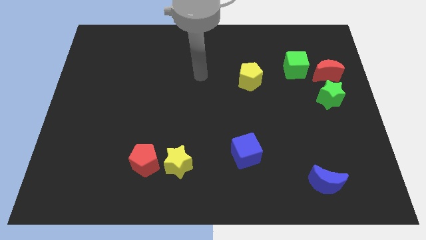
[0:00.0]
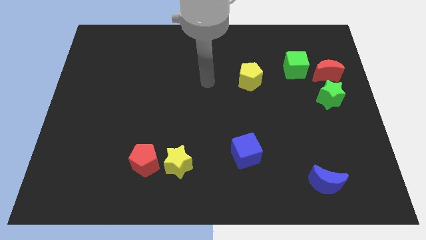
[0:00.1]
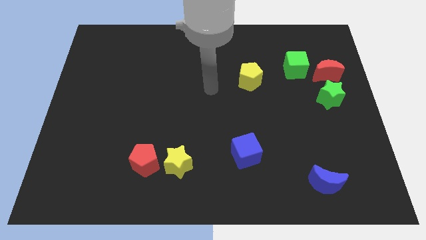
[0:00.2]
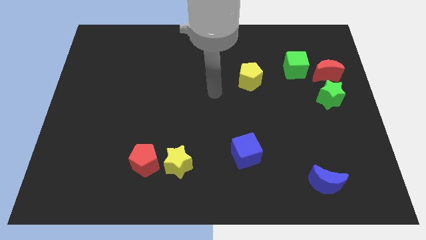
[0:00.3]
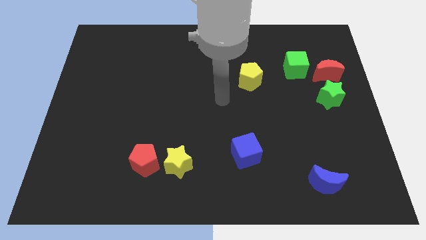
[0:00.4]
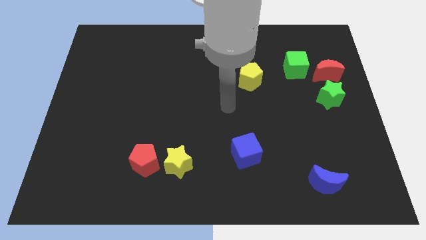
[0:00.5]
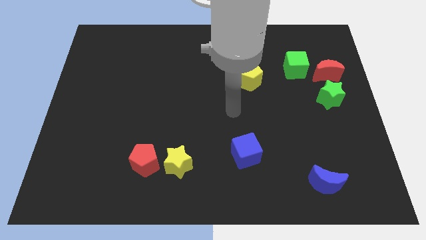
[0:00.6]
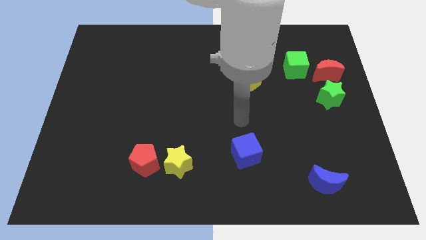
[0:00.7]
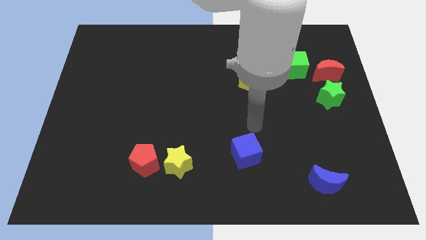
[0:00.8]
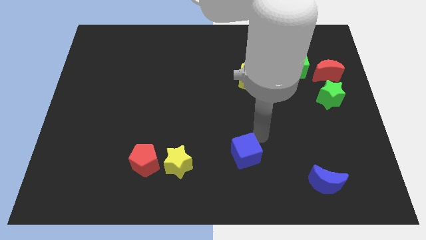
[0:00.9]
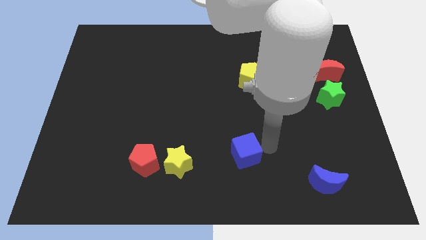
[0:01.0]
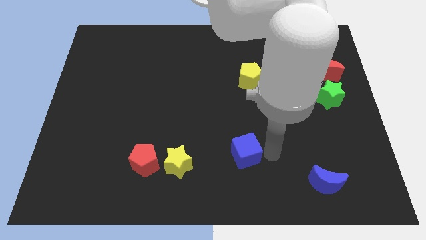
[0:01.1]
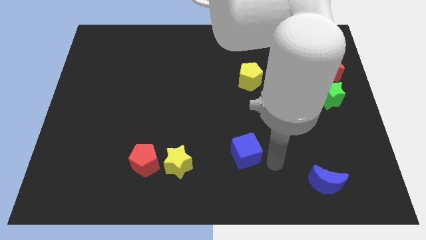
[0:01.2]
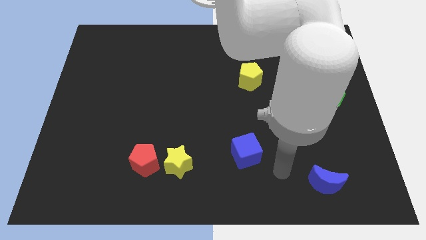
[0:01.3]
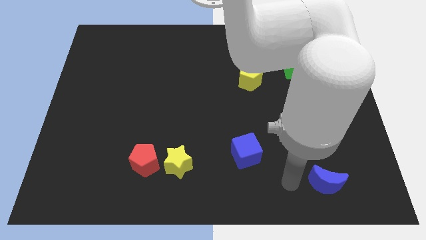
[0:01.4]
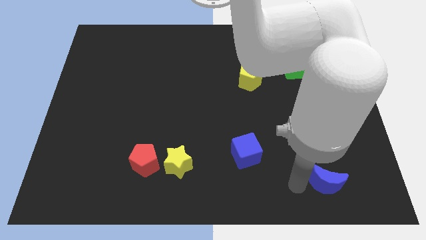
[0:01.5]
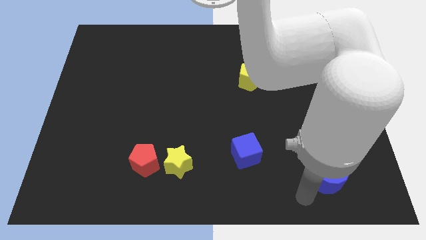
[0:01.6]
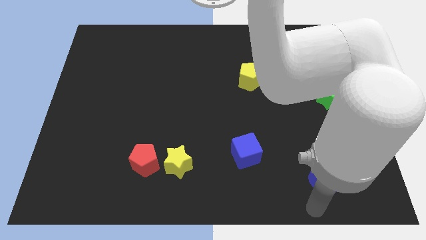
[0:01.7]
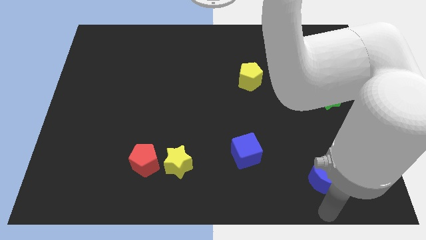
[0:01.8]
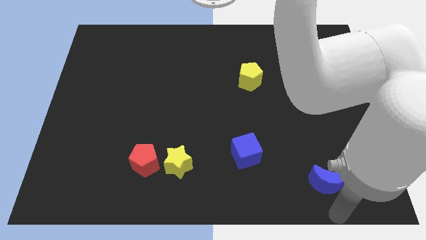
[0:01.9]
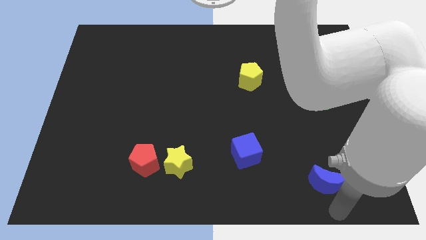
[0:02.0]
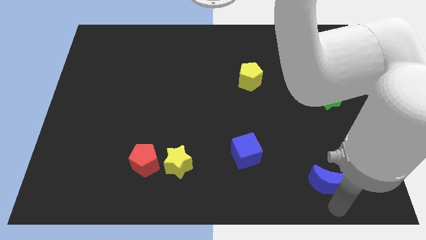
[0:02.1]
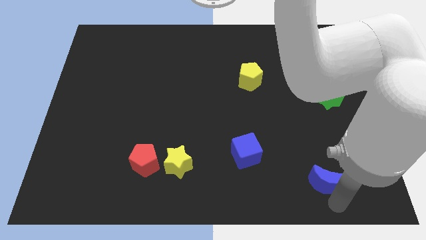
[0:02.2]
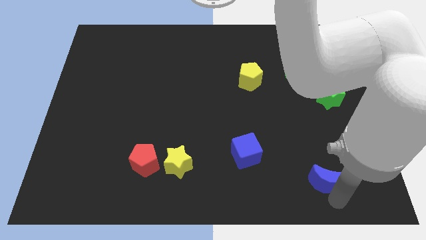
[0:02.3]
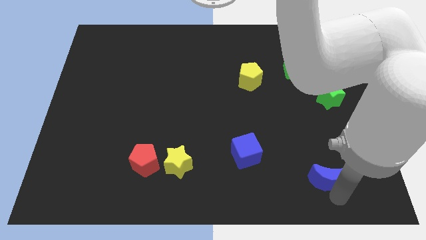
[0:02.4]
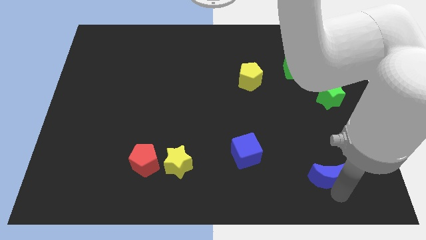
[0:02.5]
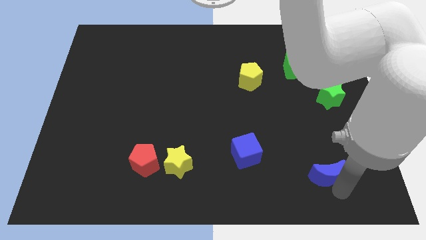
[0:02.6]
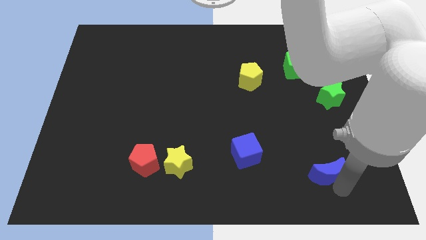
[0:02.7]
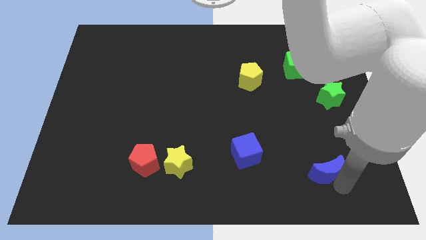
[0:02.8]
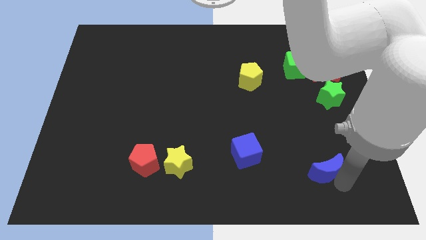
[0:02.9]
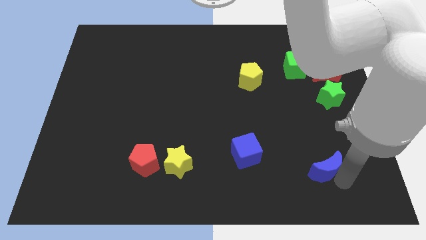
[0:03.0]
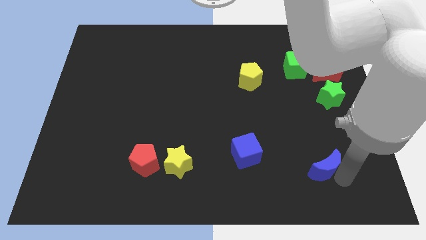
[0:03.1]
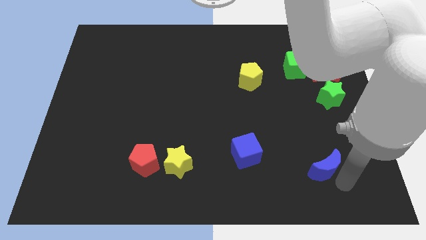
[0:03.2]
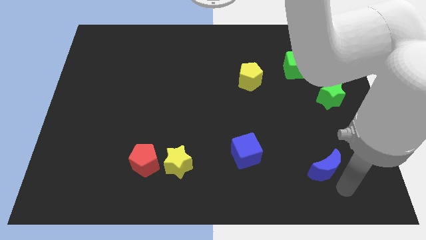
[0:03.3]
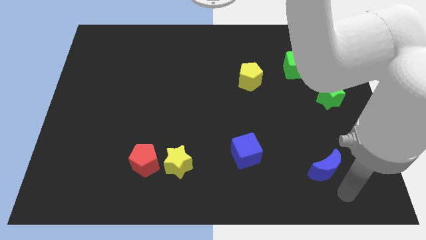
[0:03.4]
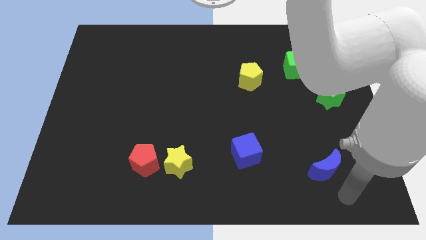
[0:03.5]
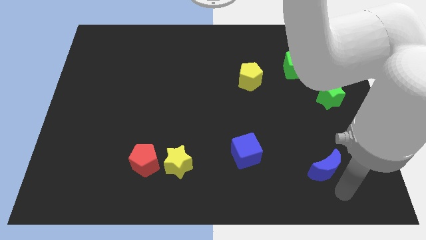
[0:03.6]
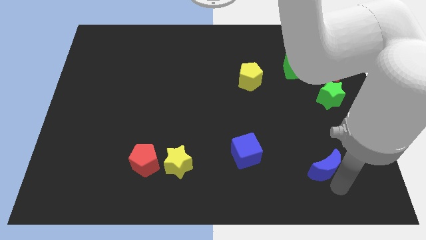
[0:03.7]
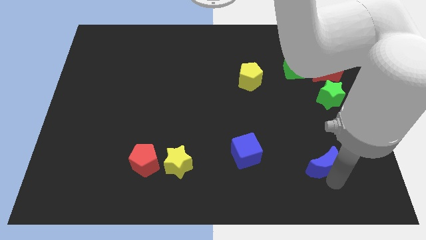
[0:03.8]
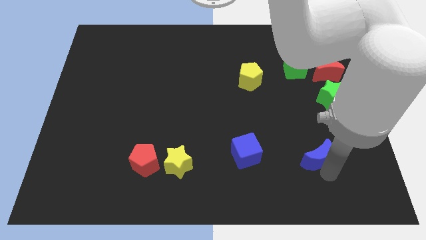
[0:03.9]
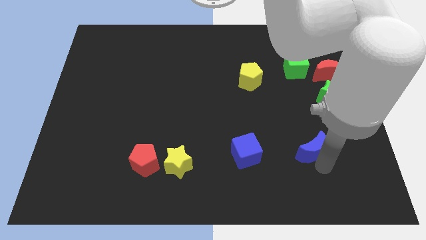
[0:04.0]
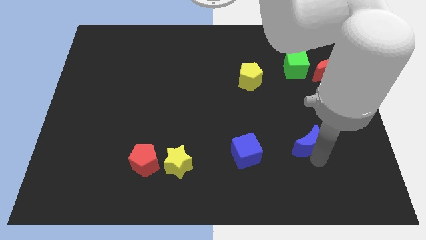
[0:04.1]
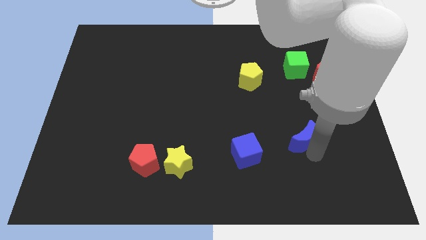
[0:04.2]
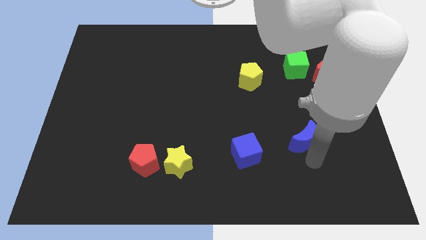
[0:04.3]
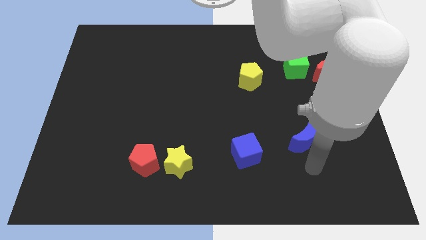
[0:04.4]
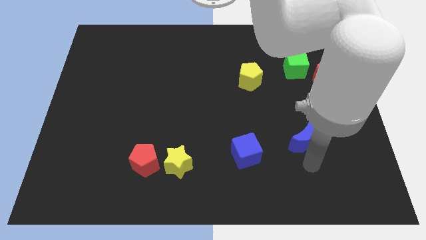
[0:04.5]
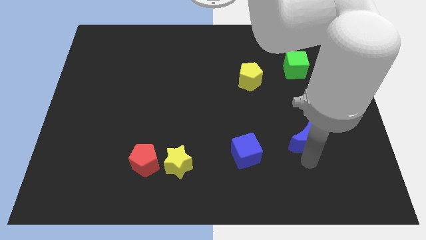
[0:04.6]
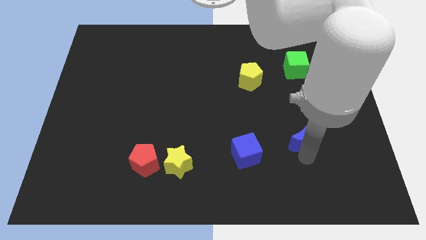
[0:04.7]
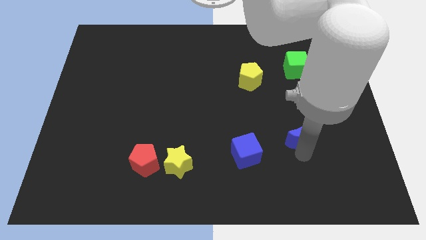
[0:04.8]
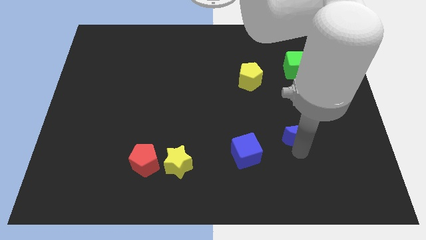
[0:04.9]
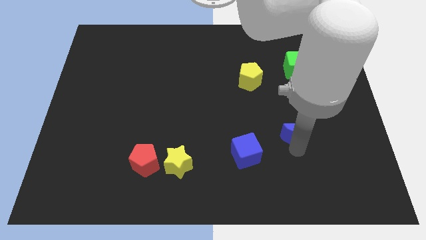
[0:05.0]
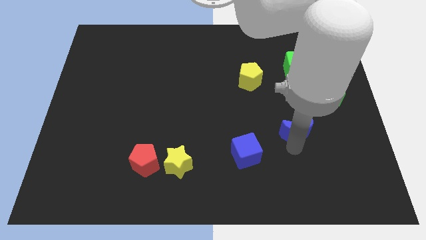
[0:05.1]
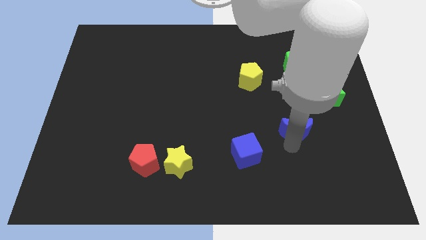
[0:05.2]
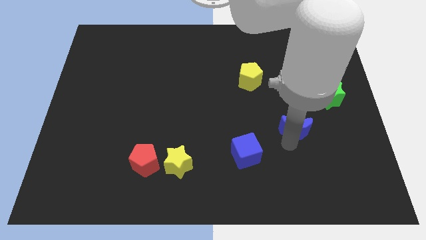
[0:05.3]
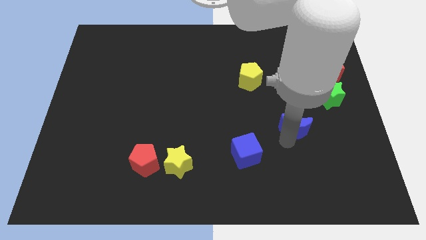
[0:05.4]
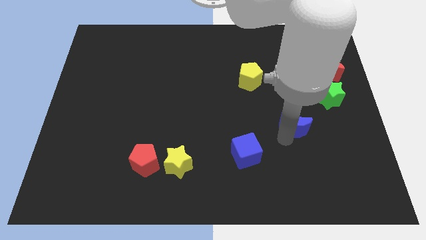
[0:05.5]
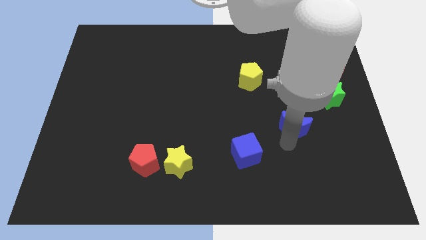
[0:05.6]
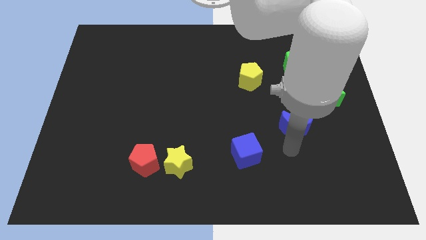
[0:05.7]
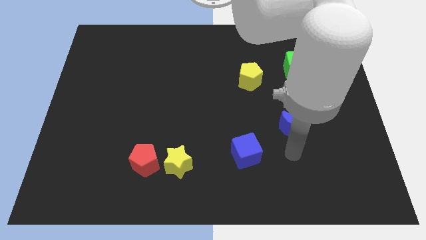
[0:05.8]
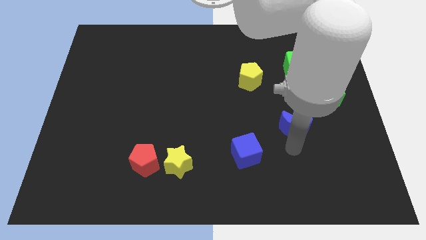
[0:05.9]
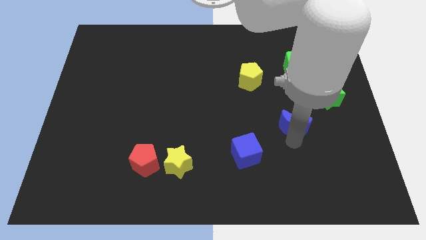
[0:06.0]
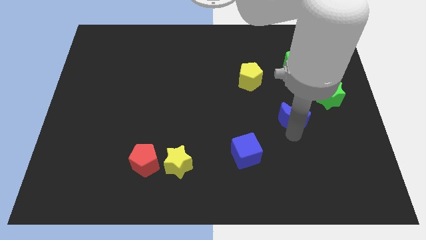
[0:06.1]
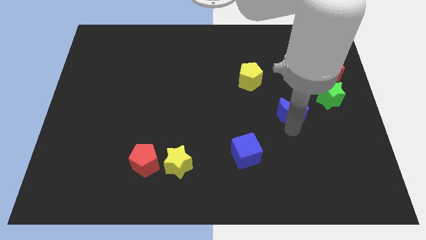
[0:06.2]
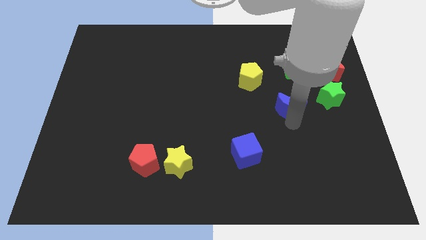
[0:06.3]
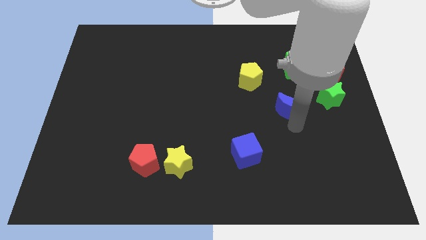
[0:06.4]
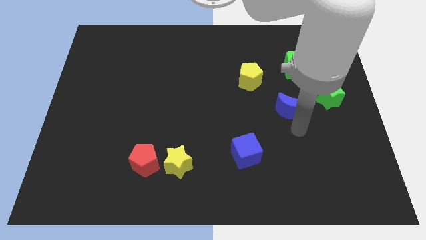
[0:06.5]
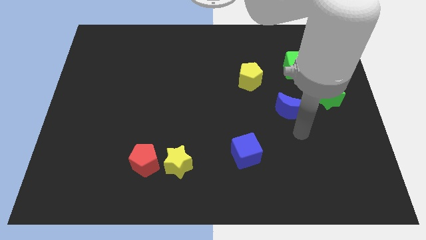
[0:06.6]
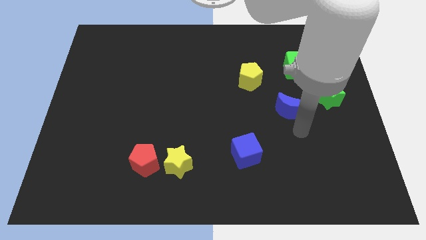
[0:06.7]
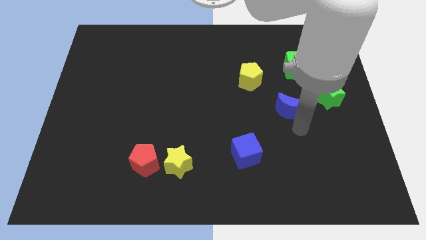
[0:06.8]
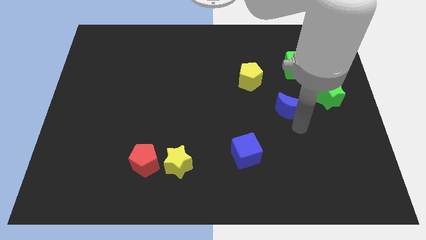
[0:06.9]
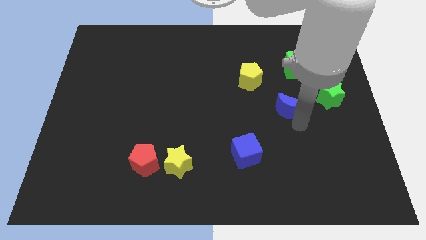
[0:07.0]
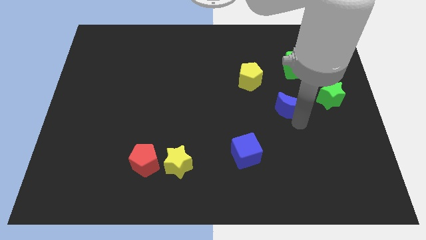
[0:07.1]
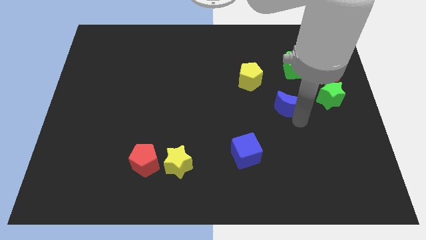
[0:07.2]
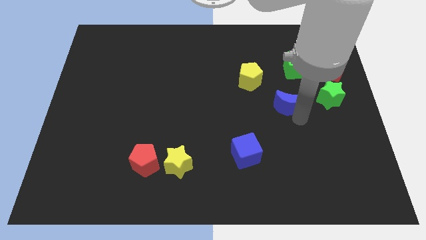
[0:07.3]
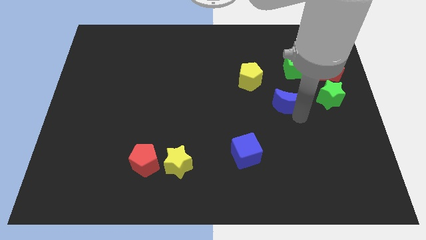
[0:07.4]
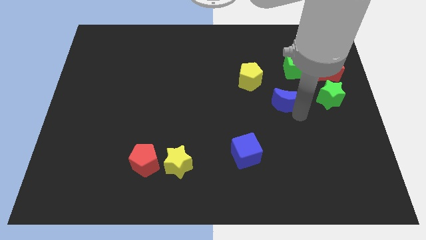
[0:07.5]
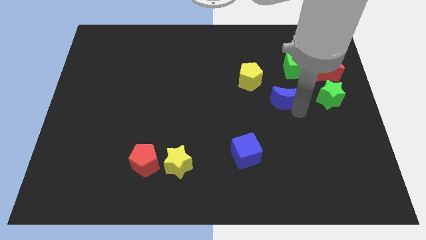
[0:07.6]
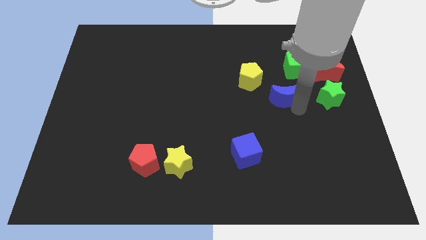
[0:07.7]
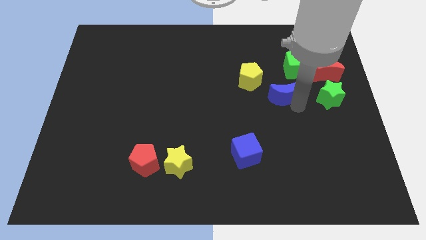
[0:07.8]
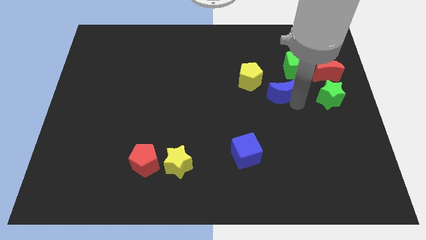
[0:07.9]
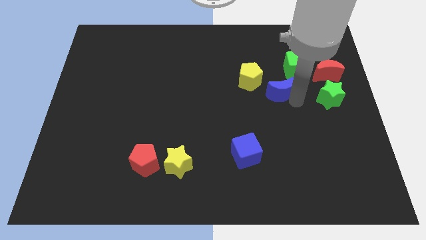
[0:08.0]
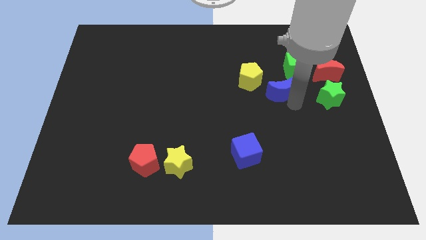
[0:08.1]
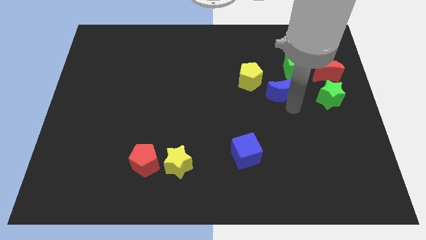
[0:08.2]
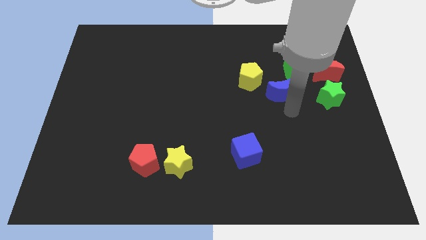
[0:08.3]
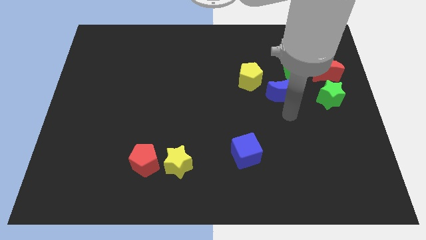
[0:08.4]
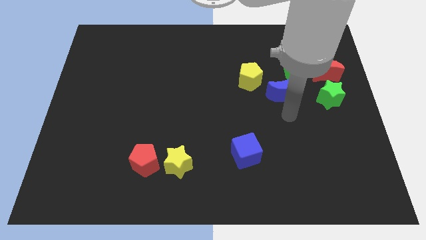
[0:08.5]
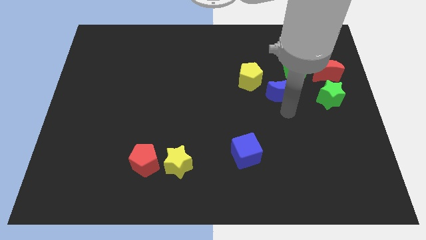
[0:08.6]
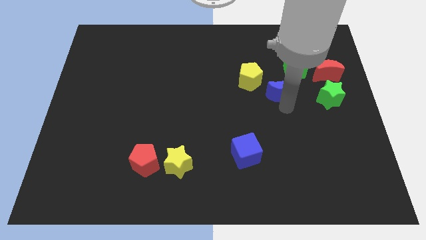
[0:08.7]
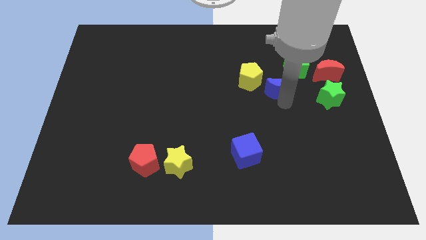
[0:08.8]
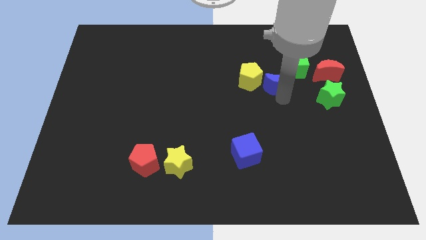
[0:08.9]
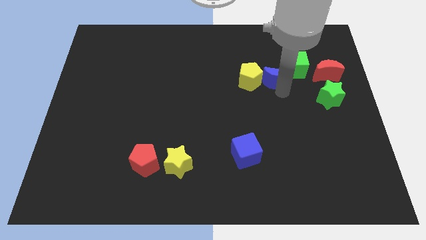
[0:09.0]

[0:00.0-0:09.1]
move the blue moon to the left of the green cube
